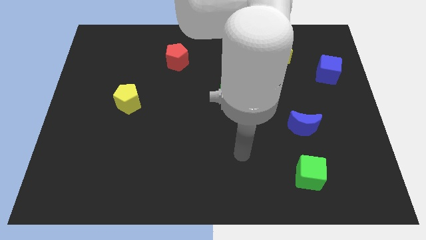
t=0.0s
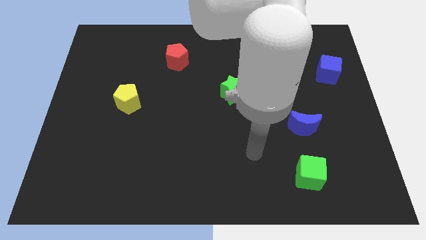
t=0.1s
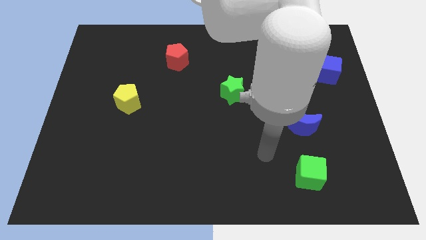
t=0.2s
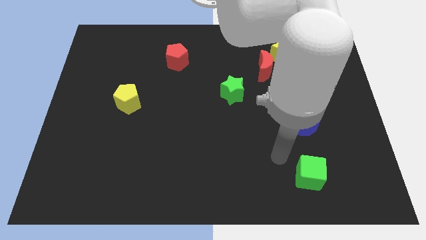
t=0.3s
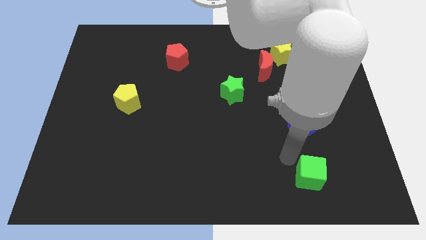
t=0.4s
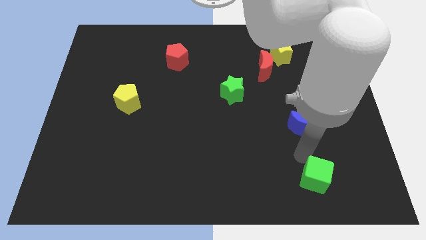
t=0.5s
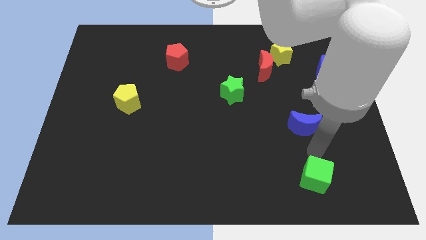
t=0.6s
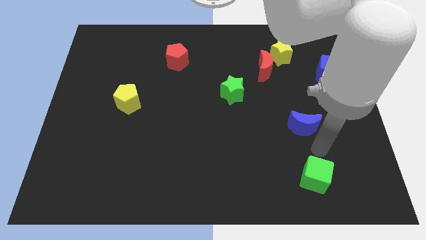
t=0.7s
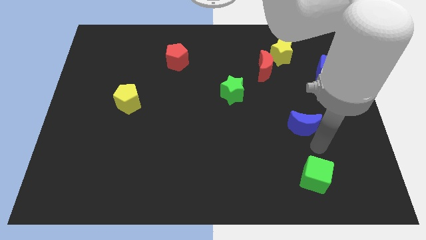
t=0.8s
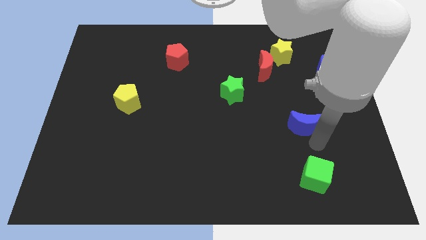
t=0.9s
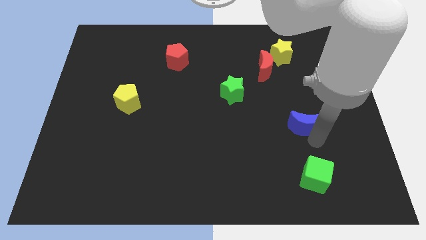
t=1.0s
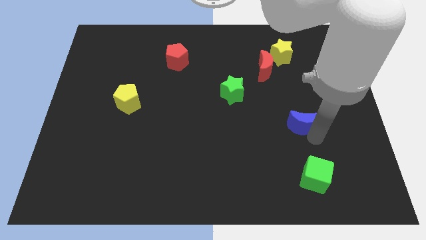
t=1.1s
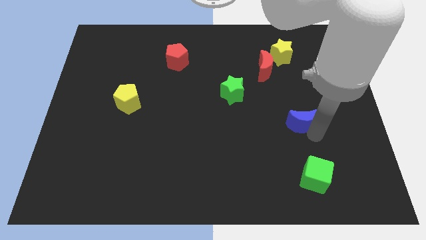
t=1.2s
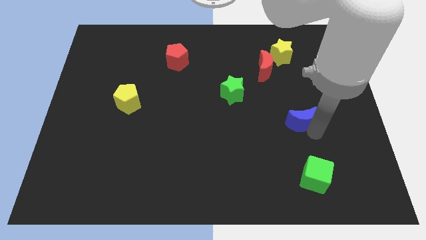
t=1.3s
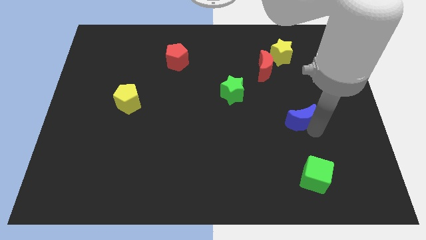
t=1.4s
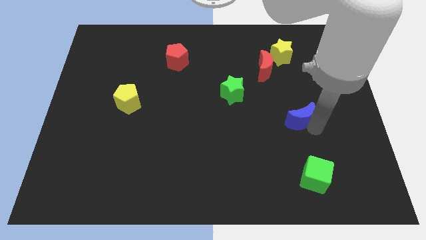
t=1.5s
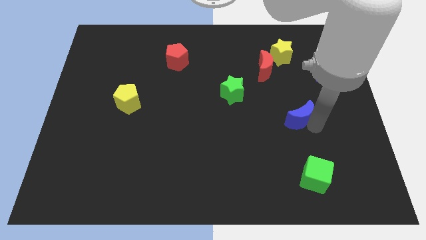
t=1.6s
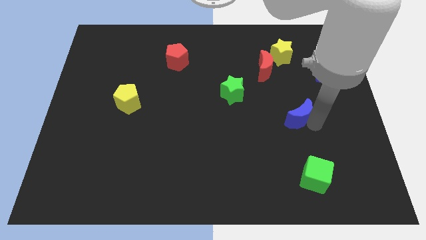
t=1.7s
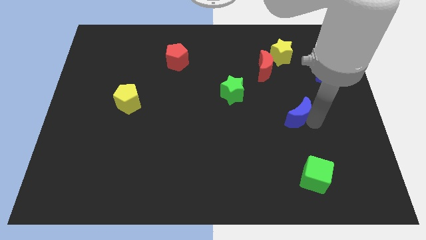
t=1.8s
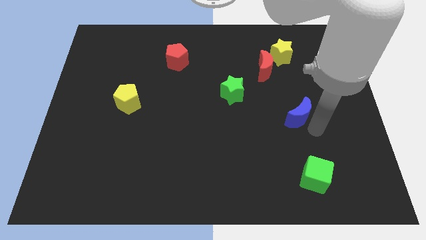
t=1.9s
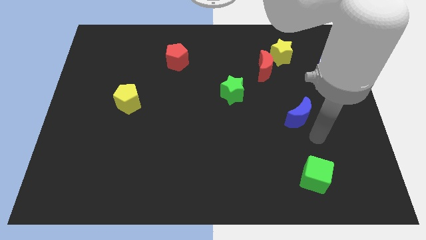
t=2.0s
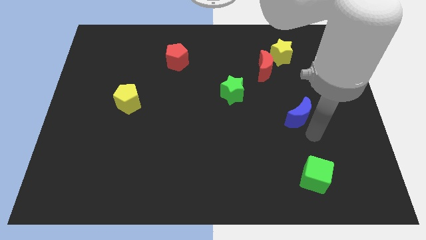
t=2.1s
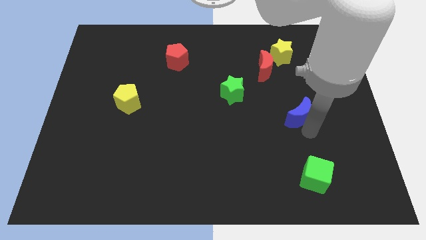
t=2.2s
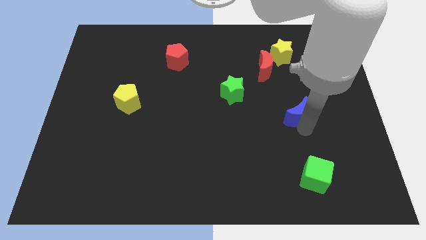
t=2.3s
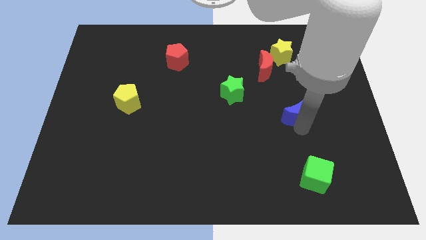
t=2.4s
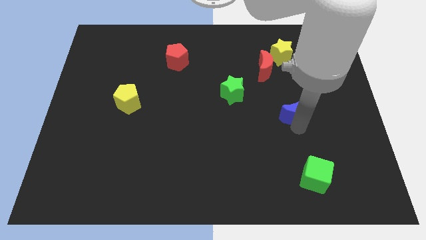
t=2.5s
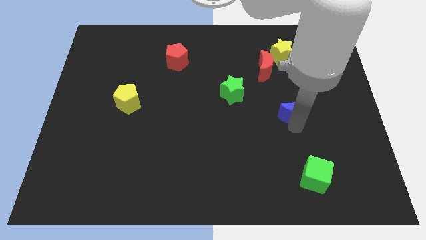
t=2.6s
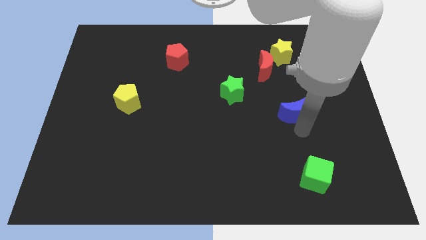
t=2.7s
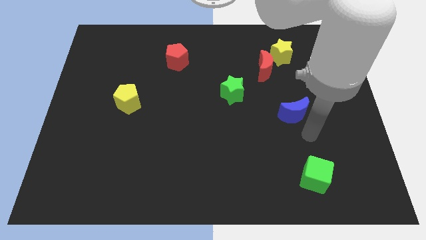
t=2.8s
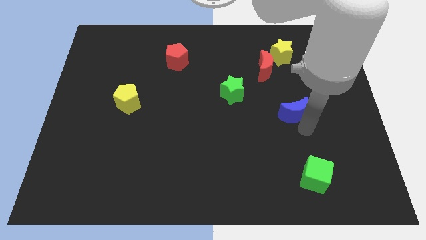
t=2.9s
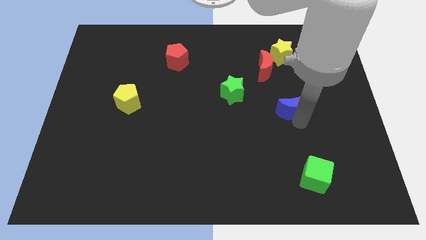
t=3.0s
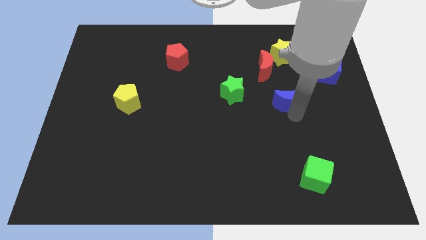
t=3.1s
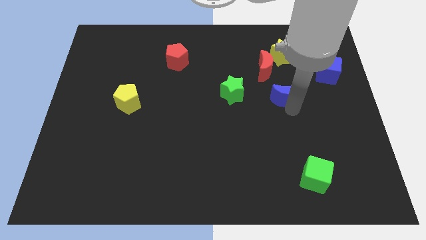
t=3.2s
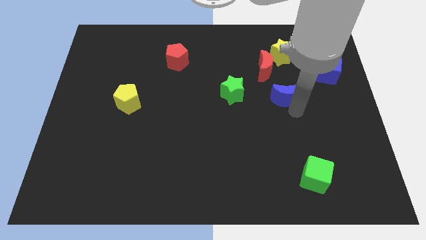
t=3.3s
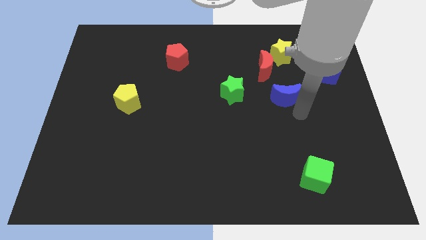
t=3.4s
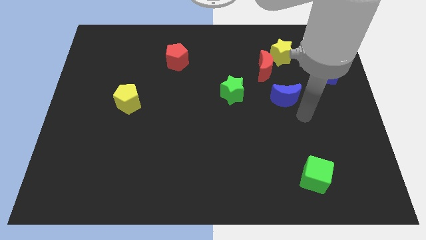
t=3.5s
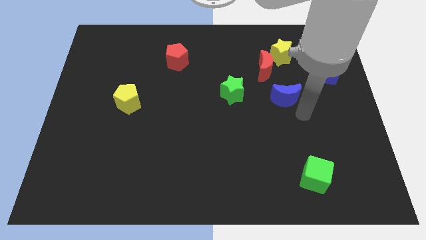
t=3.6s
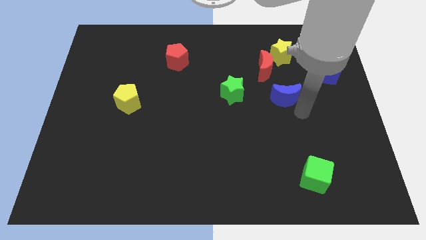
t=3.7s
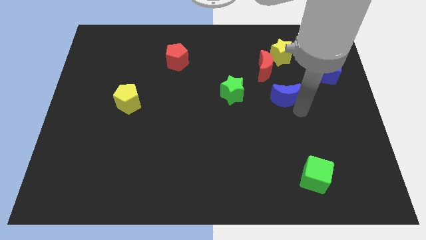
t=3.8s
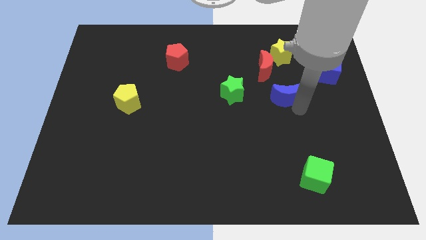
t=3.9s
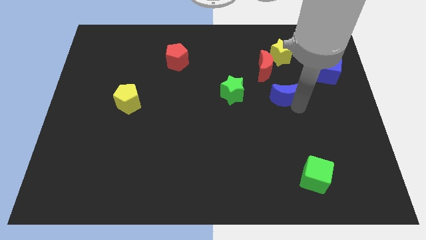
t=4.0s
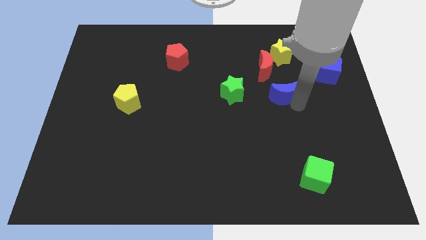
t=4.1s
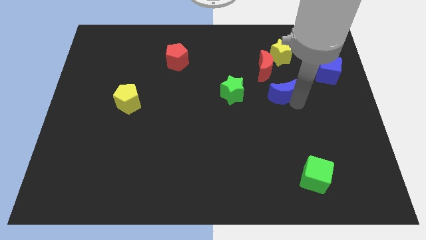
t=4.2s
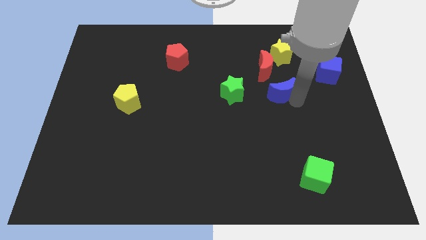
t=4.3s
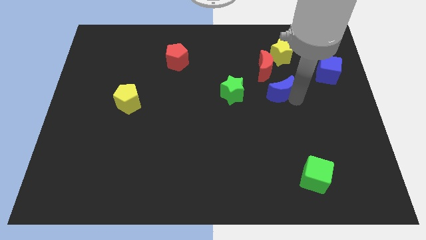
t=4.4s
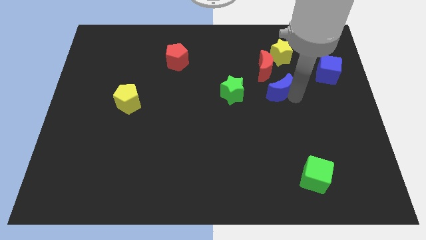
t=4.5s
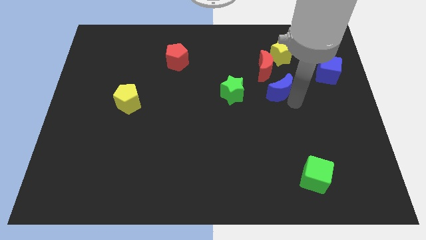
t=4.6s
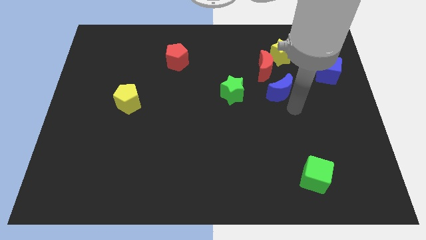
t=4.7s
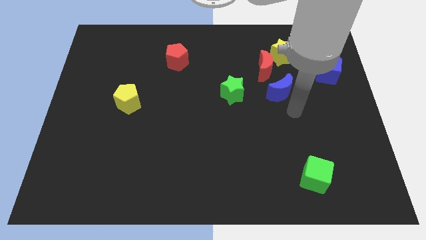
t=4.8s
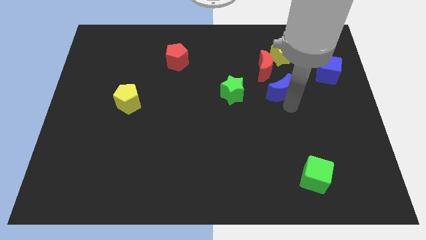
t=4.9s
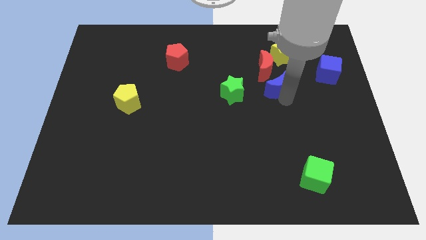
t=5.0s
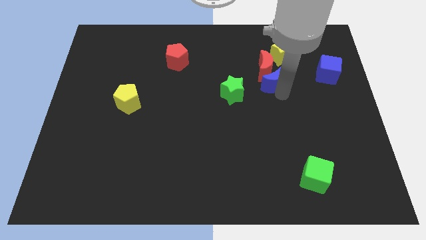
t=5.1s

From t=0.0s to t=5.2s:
move the blue moon towards the red moon

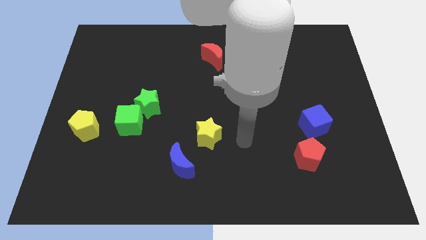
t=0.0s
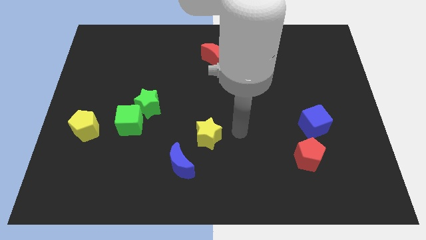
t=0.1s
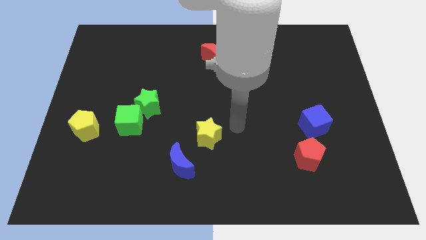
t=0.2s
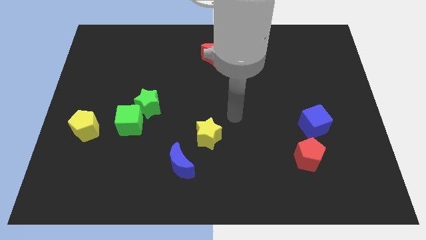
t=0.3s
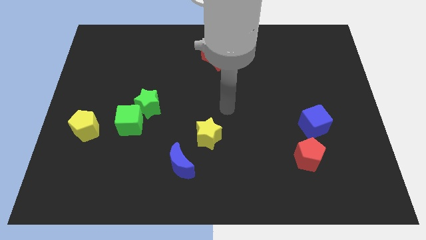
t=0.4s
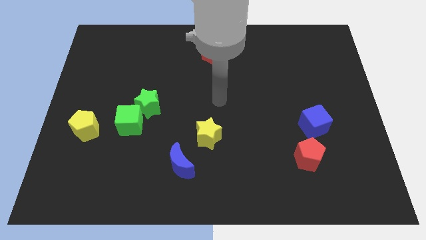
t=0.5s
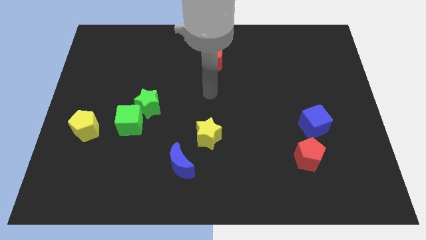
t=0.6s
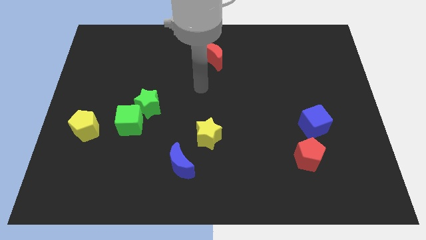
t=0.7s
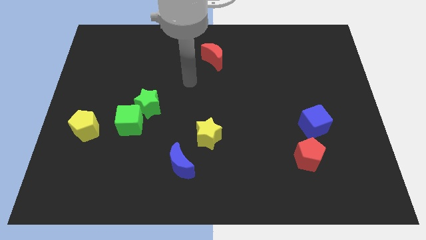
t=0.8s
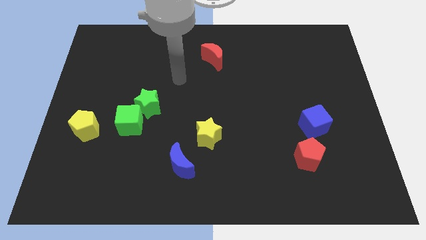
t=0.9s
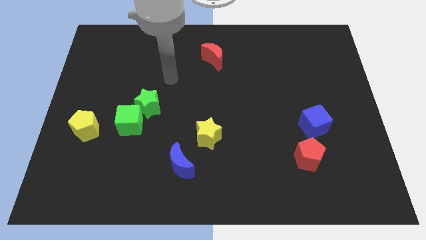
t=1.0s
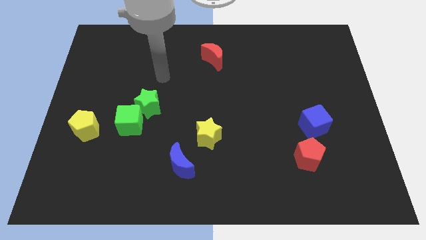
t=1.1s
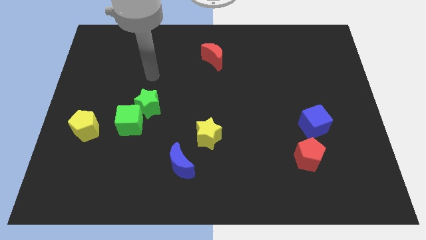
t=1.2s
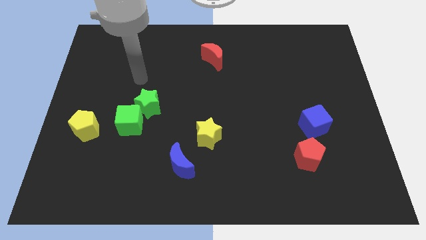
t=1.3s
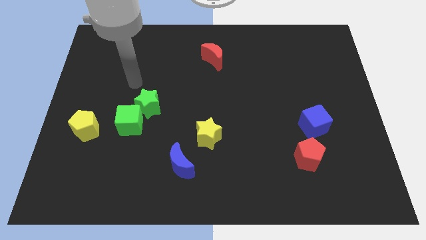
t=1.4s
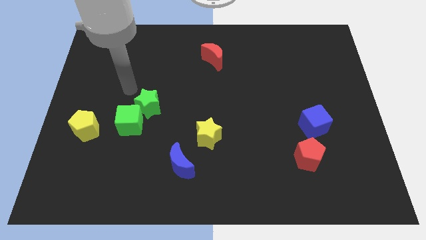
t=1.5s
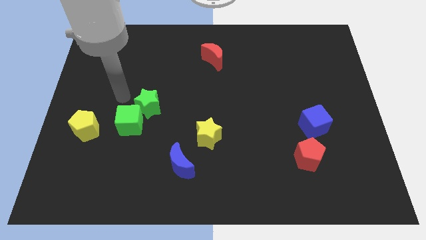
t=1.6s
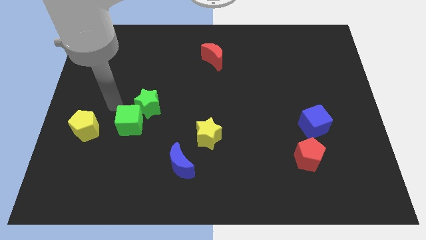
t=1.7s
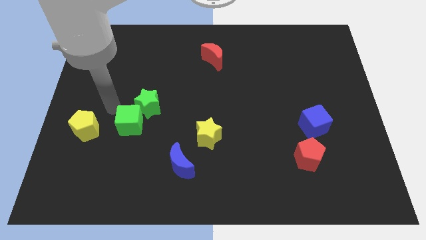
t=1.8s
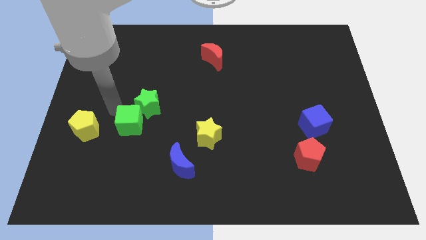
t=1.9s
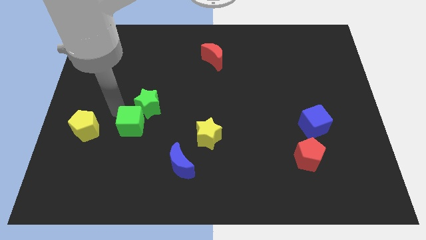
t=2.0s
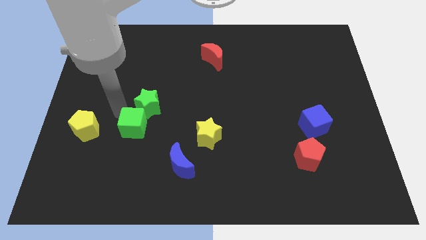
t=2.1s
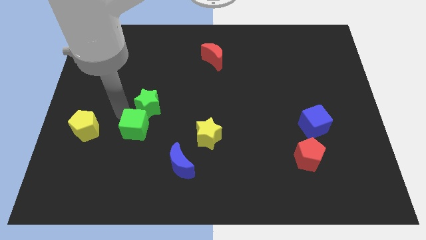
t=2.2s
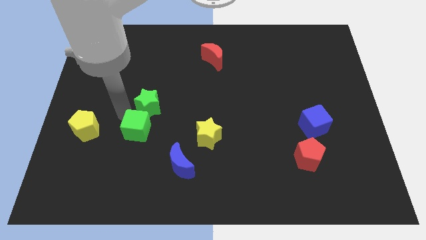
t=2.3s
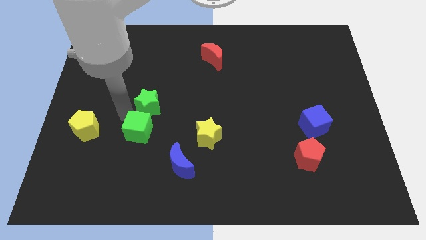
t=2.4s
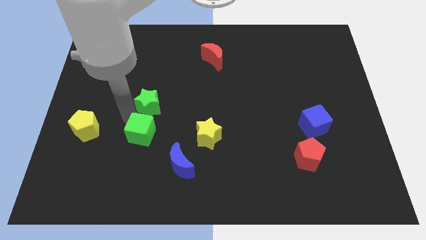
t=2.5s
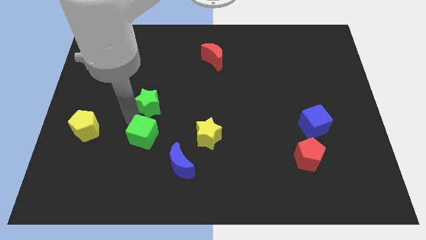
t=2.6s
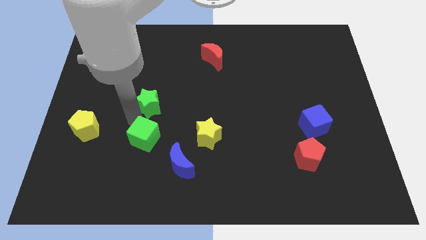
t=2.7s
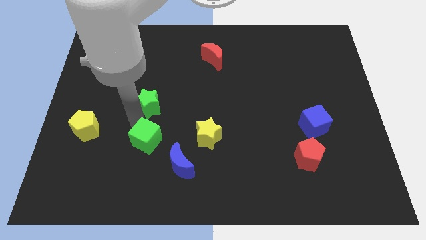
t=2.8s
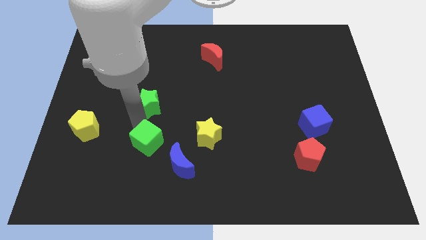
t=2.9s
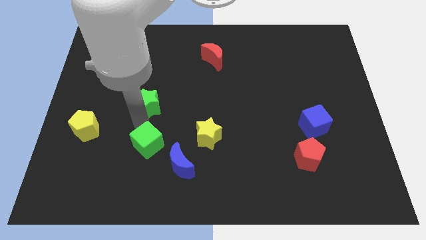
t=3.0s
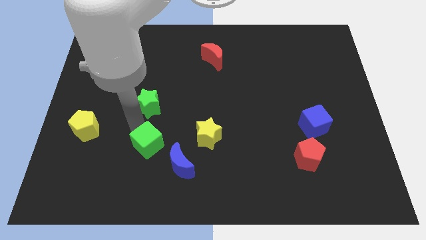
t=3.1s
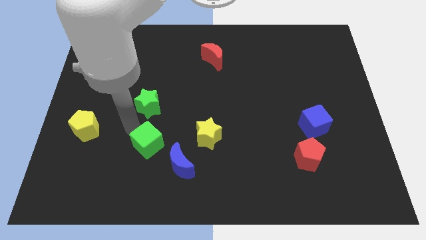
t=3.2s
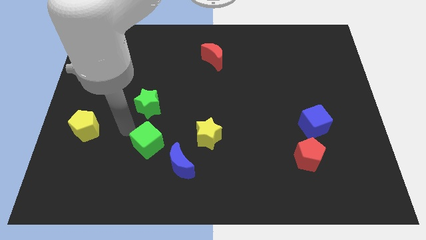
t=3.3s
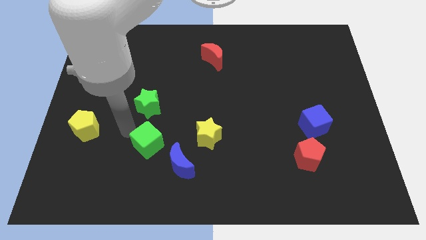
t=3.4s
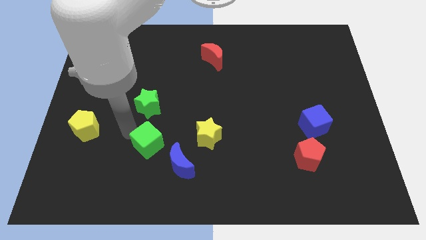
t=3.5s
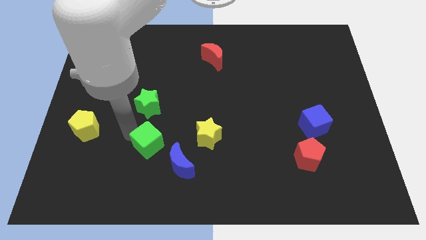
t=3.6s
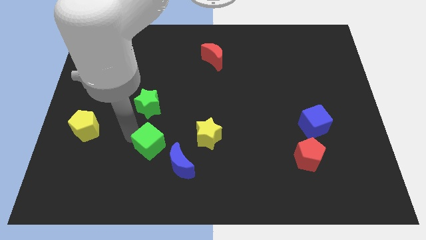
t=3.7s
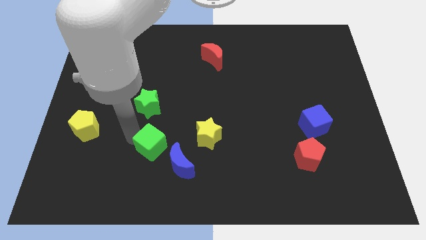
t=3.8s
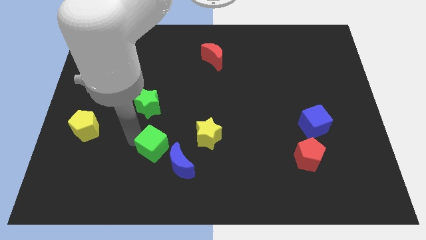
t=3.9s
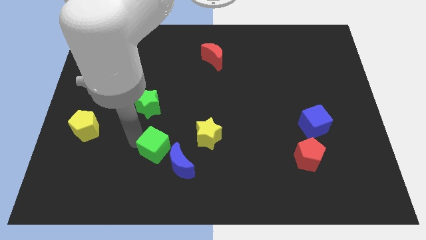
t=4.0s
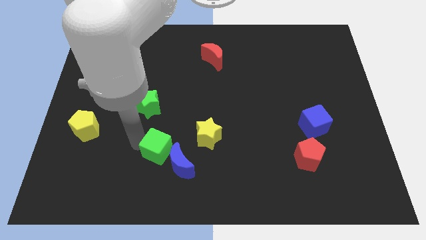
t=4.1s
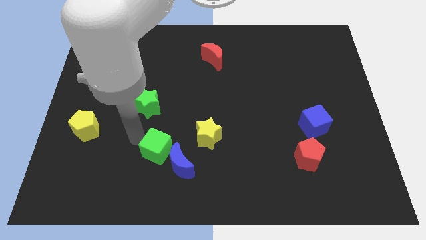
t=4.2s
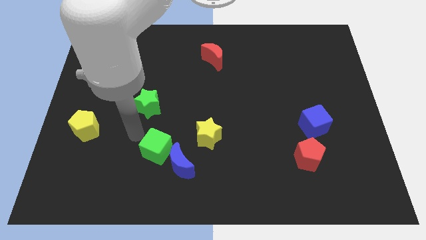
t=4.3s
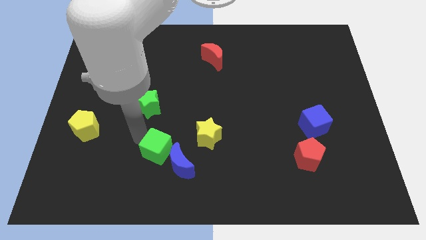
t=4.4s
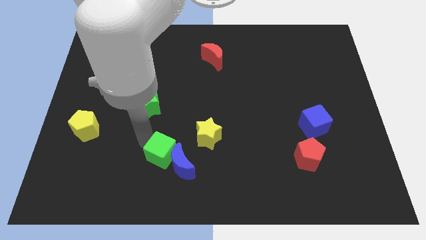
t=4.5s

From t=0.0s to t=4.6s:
put the green cube next to the blue moon
